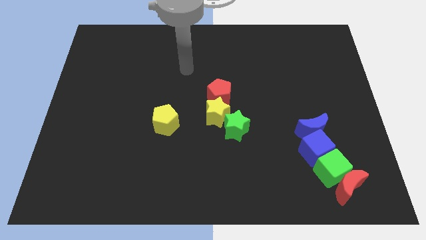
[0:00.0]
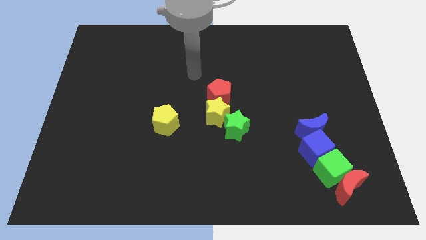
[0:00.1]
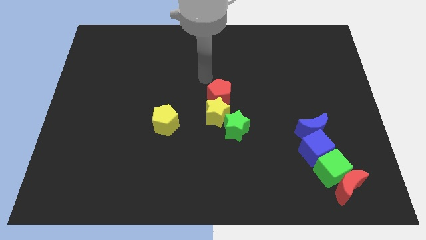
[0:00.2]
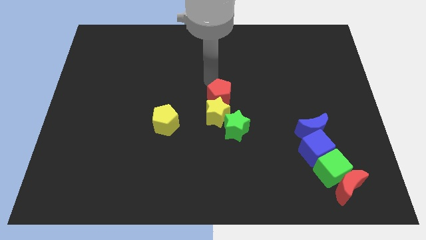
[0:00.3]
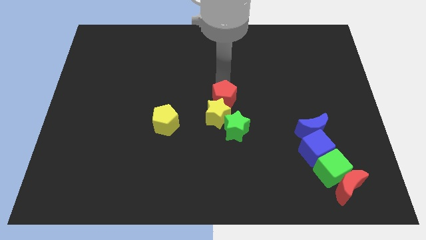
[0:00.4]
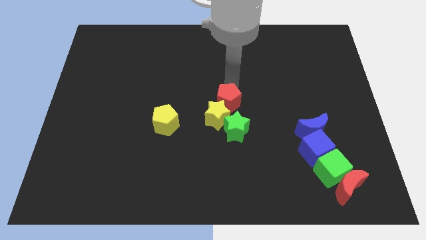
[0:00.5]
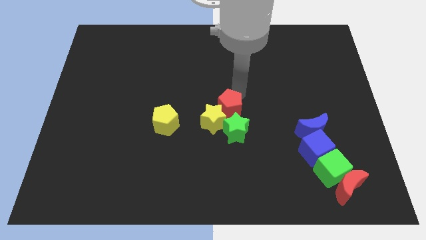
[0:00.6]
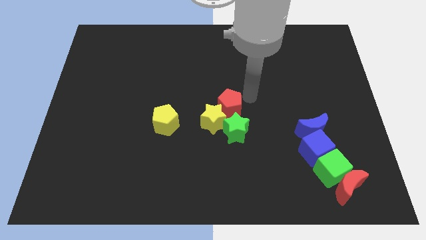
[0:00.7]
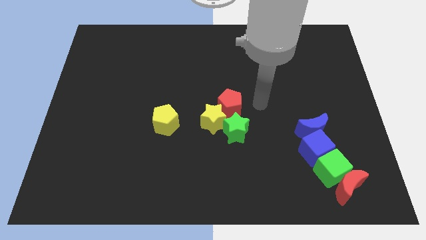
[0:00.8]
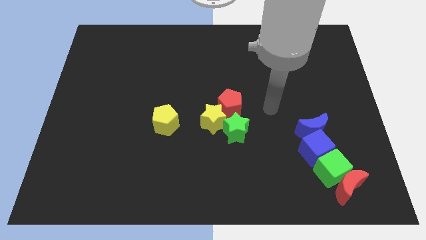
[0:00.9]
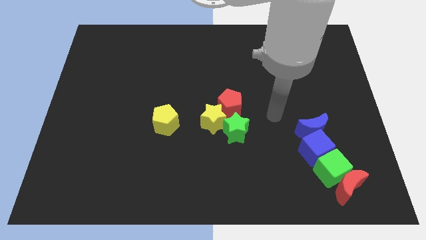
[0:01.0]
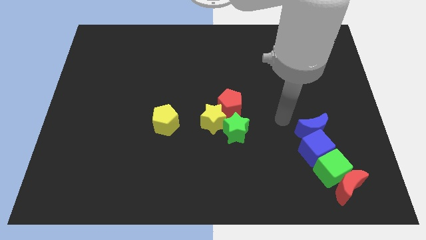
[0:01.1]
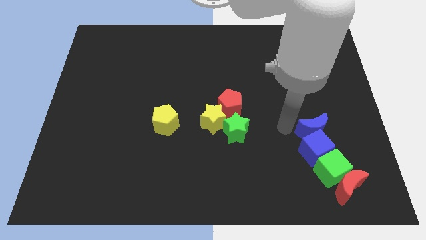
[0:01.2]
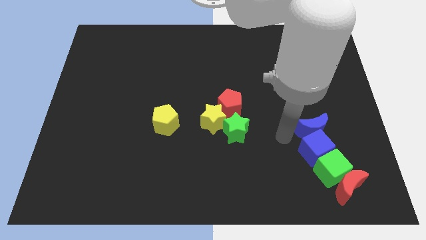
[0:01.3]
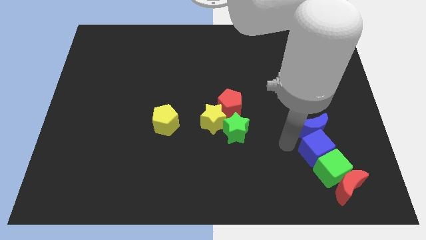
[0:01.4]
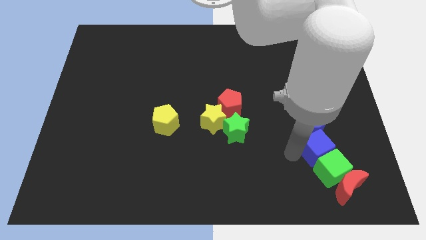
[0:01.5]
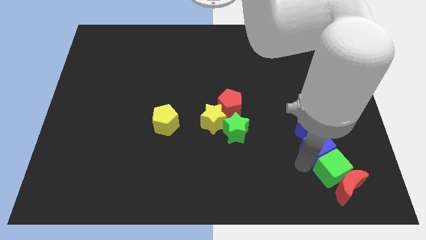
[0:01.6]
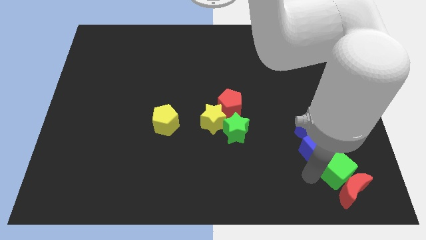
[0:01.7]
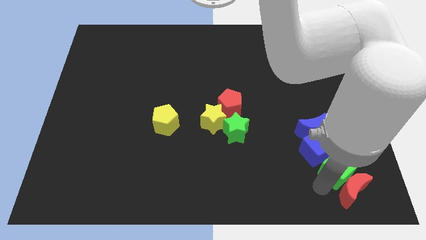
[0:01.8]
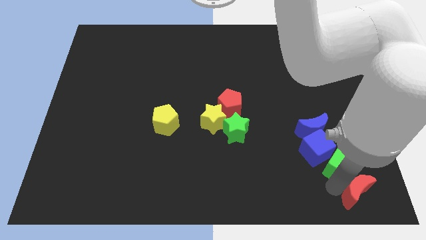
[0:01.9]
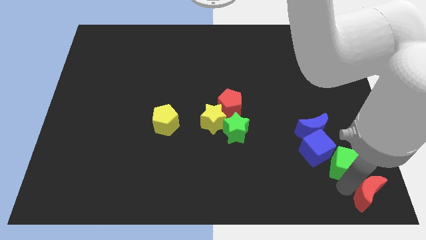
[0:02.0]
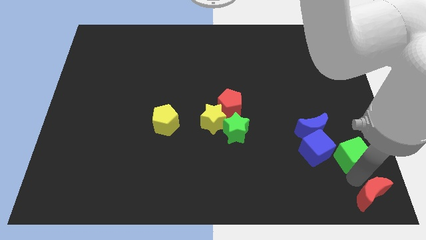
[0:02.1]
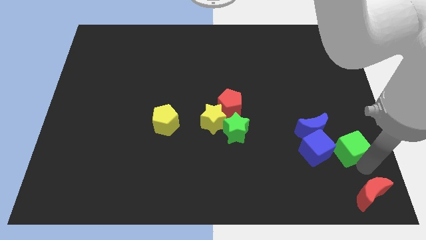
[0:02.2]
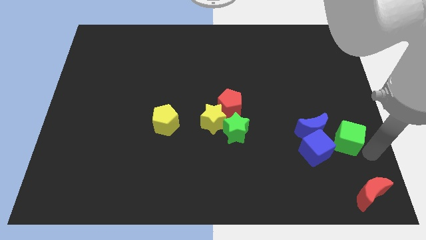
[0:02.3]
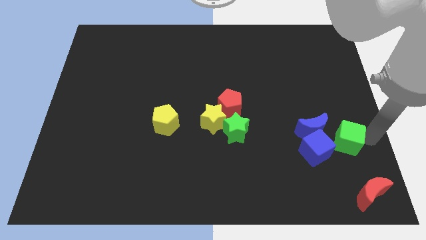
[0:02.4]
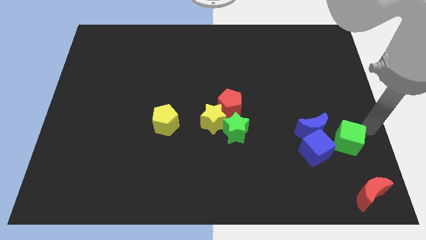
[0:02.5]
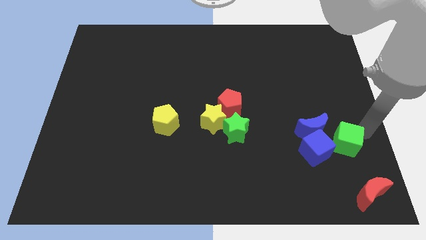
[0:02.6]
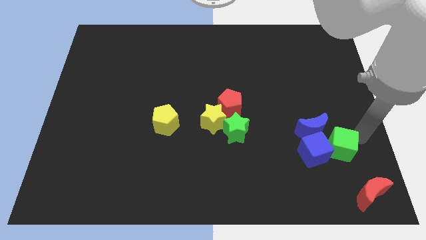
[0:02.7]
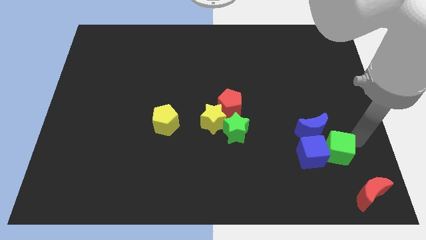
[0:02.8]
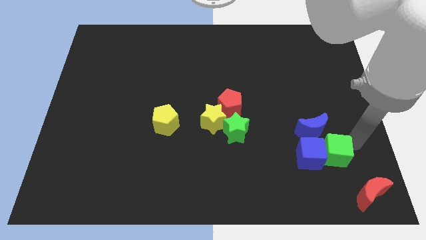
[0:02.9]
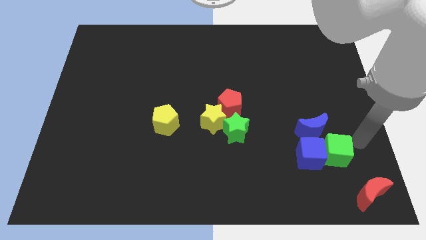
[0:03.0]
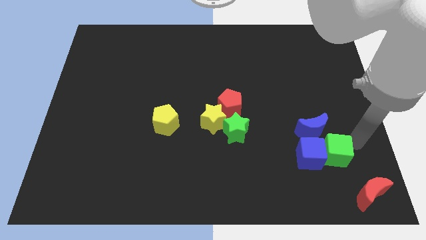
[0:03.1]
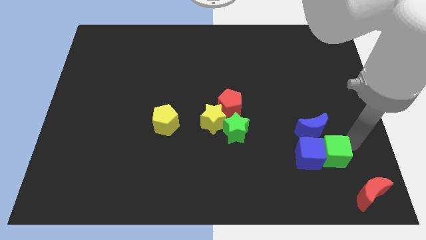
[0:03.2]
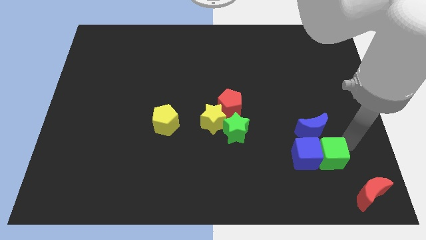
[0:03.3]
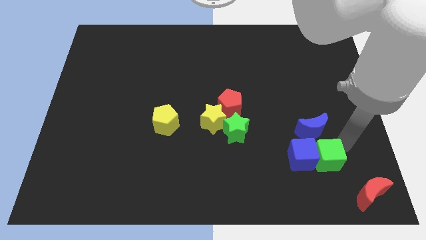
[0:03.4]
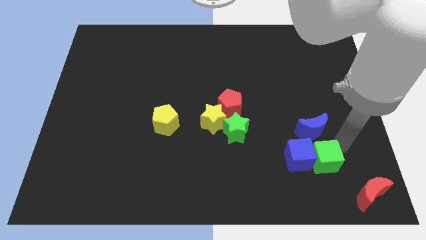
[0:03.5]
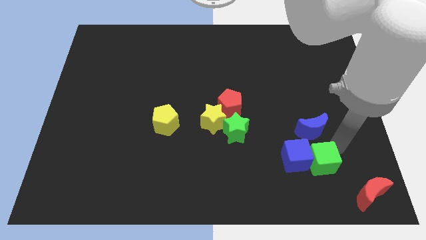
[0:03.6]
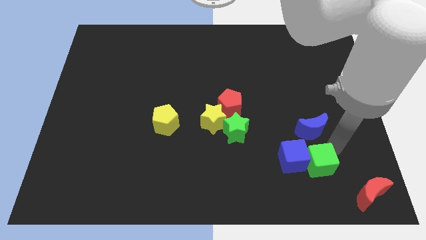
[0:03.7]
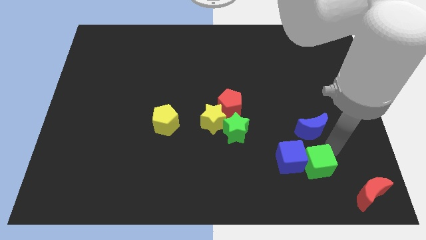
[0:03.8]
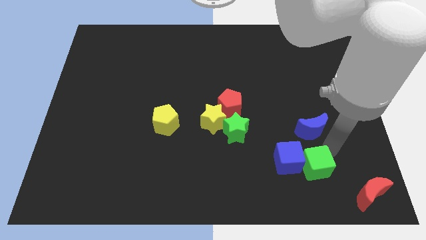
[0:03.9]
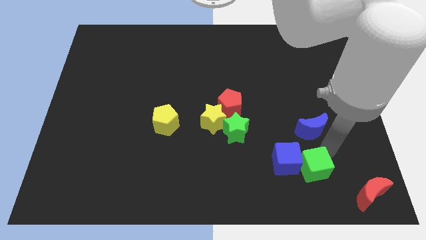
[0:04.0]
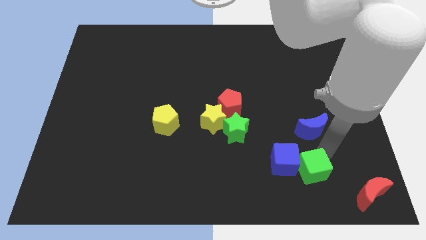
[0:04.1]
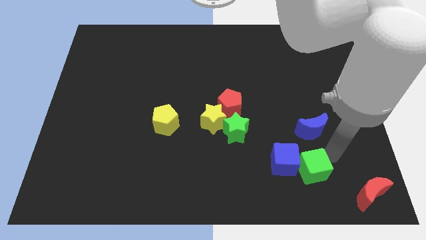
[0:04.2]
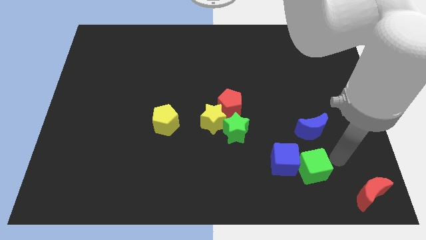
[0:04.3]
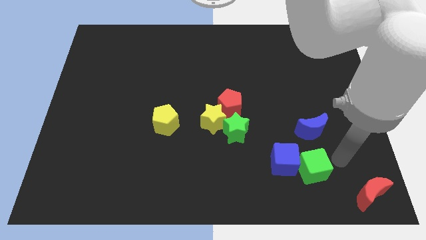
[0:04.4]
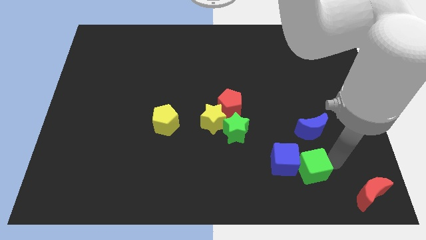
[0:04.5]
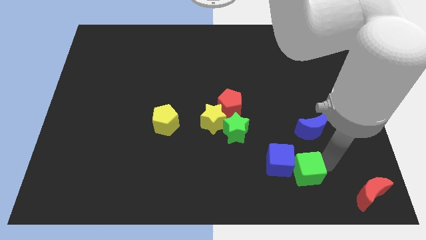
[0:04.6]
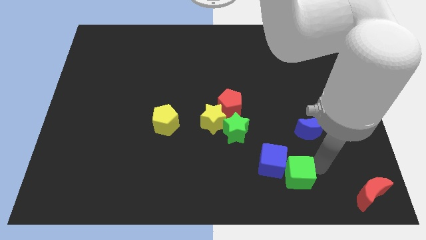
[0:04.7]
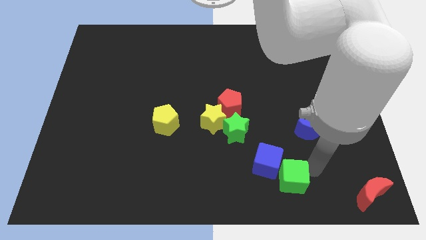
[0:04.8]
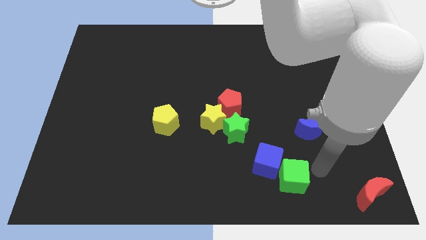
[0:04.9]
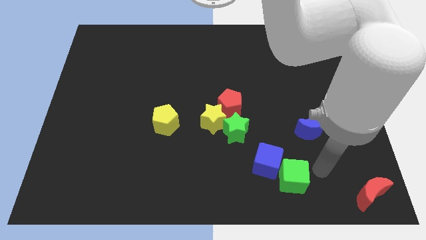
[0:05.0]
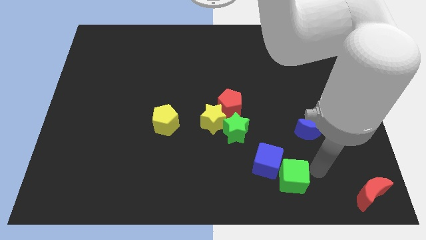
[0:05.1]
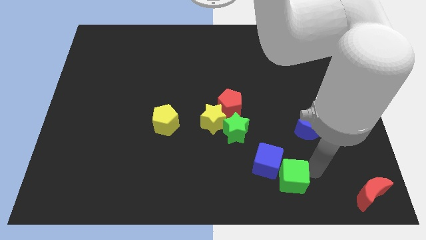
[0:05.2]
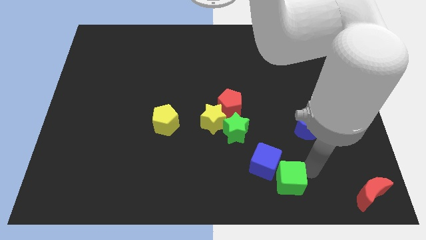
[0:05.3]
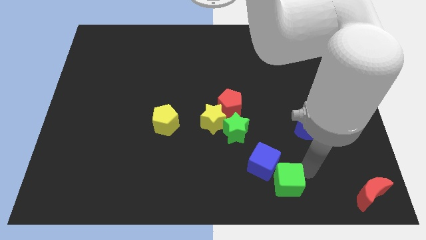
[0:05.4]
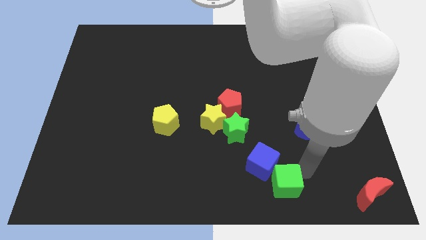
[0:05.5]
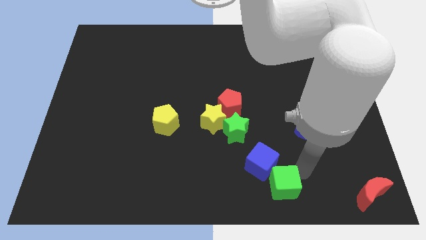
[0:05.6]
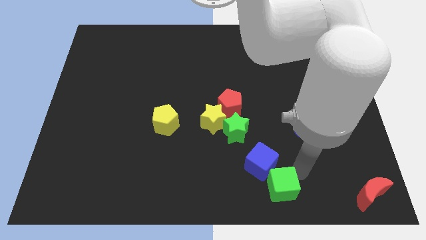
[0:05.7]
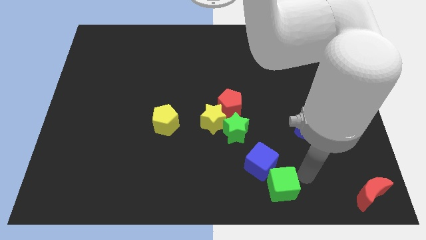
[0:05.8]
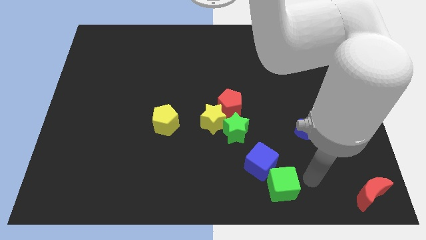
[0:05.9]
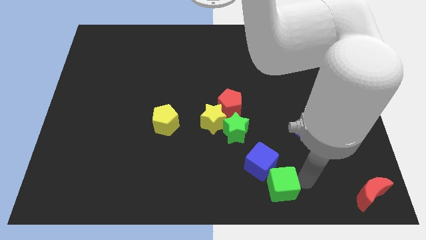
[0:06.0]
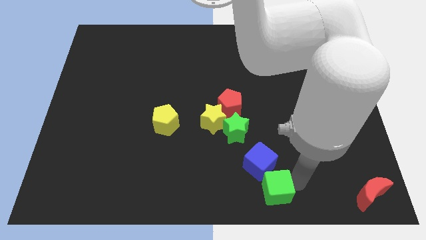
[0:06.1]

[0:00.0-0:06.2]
slide the green cube to the bottom side
